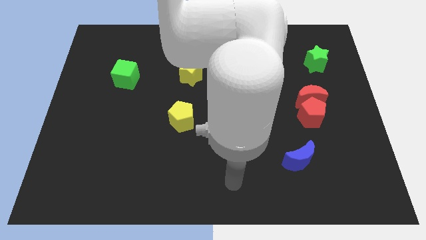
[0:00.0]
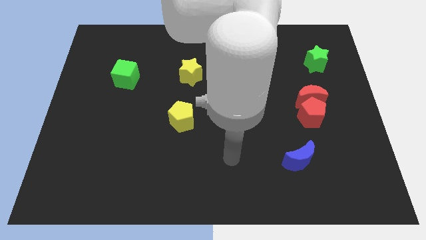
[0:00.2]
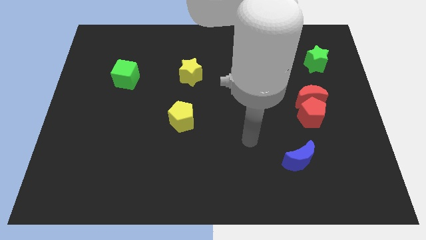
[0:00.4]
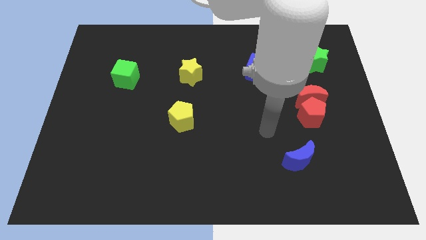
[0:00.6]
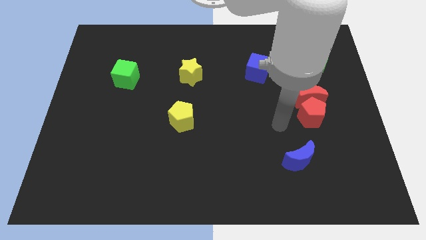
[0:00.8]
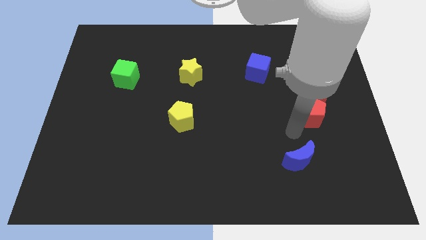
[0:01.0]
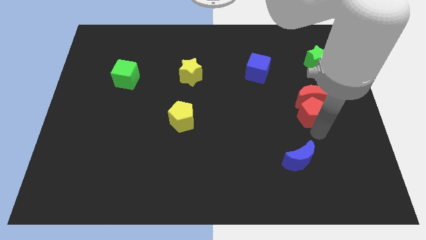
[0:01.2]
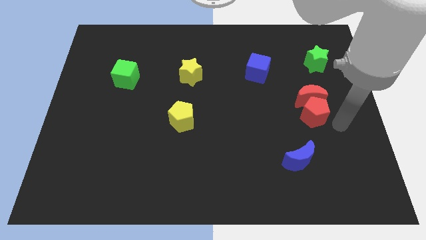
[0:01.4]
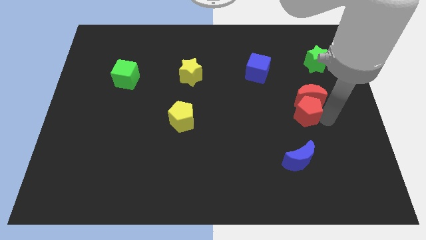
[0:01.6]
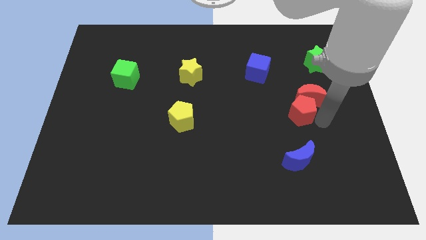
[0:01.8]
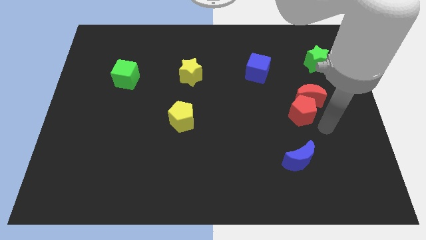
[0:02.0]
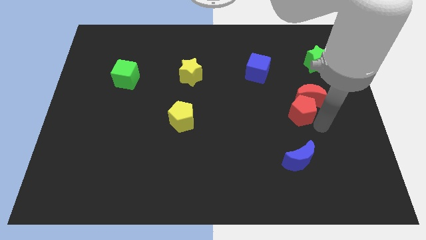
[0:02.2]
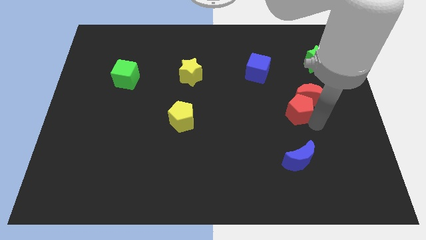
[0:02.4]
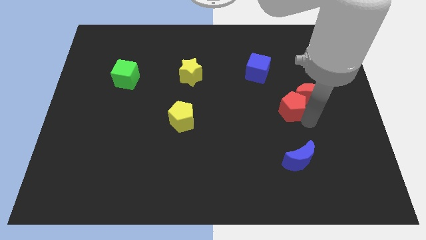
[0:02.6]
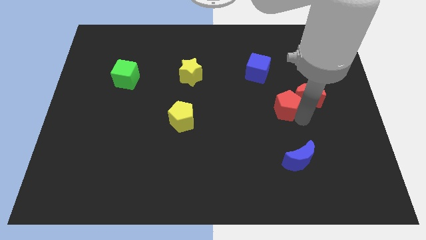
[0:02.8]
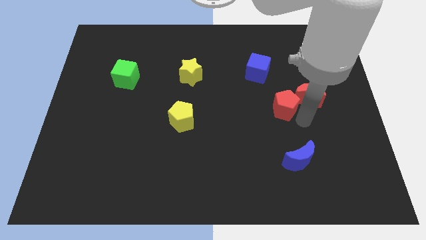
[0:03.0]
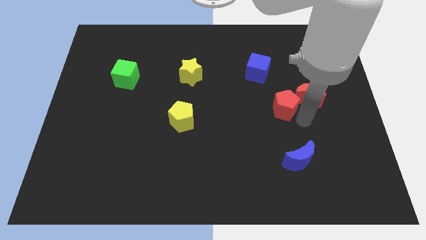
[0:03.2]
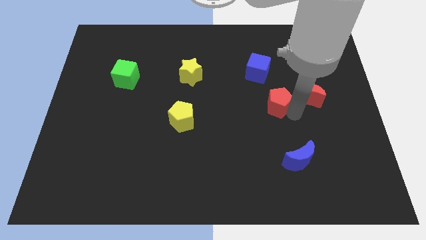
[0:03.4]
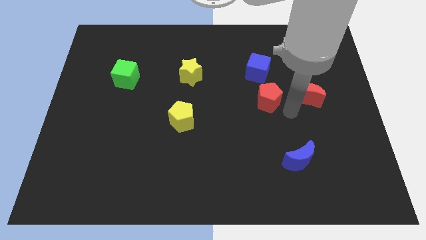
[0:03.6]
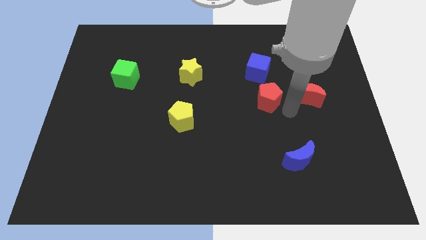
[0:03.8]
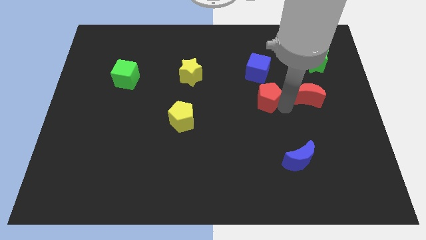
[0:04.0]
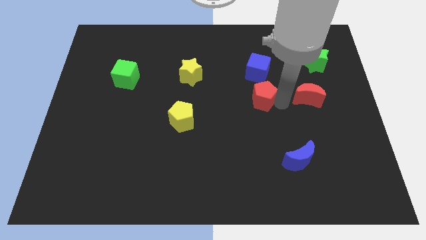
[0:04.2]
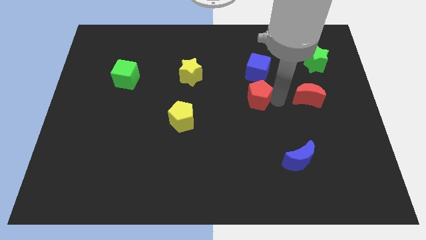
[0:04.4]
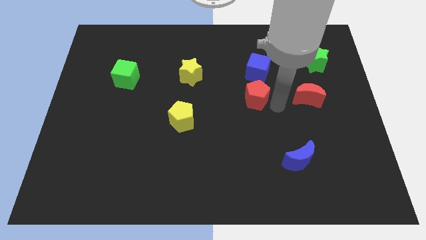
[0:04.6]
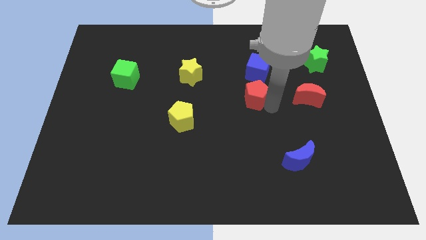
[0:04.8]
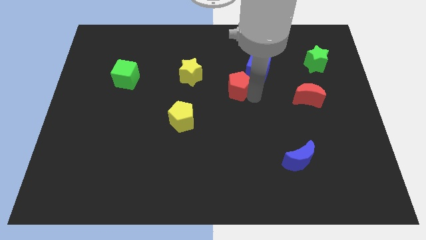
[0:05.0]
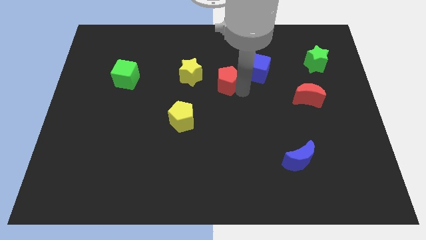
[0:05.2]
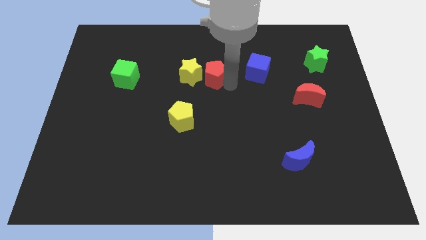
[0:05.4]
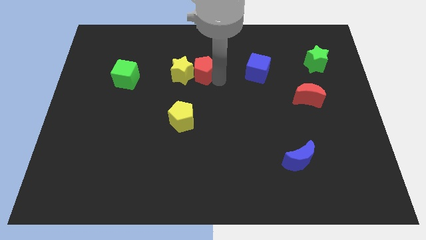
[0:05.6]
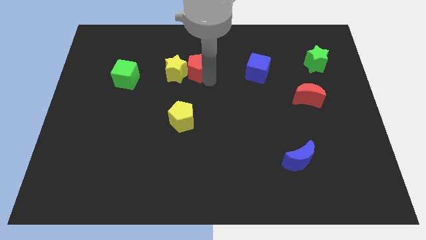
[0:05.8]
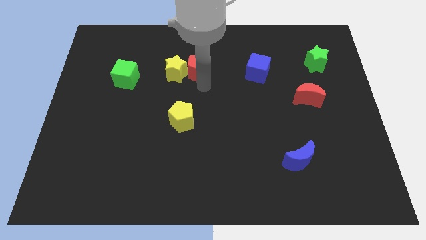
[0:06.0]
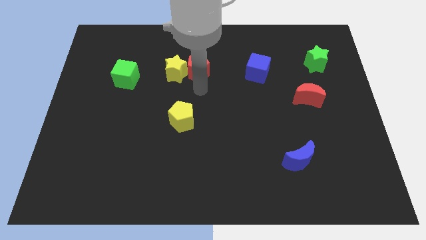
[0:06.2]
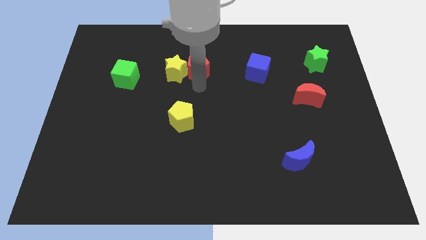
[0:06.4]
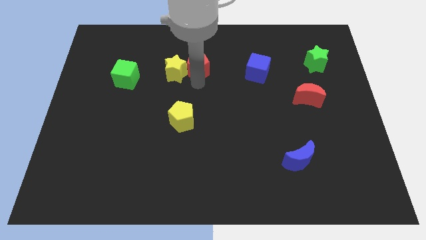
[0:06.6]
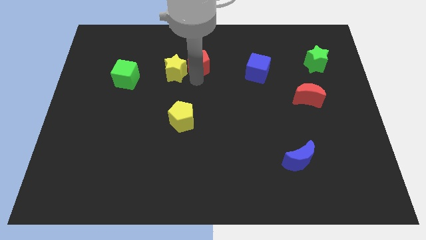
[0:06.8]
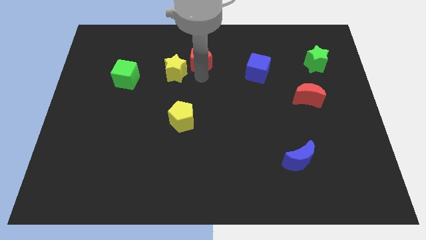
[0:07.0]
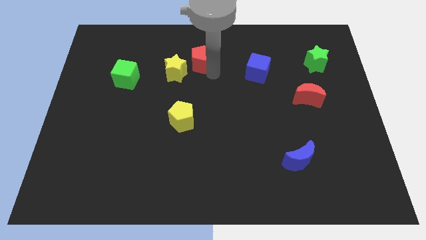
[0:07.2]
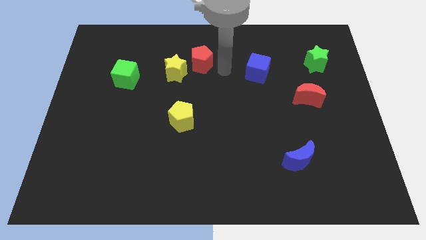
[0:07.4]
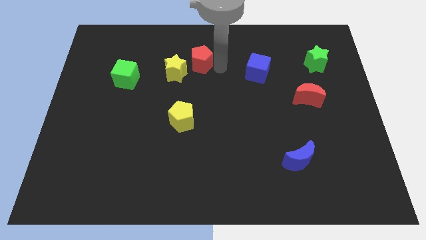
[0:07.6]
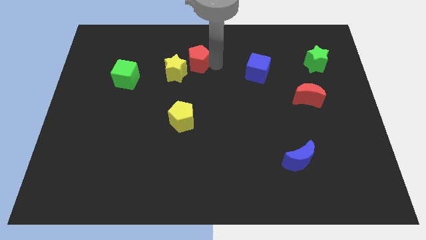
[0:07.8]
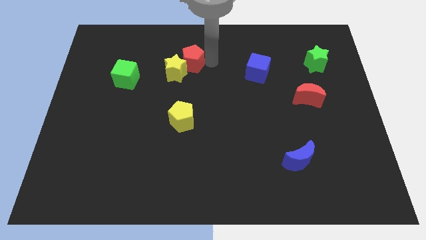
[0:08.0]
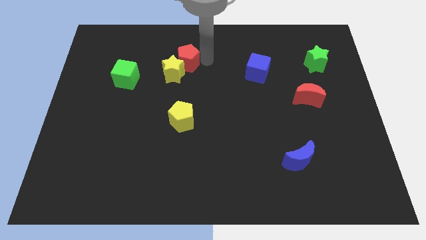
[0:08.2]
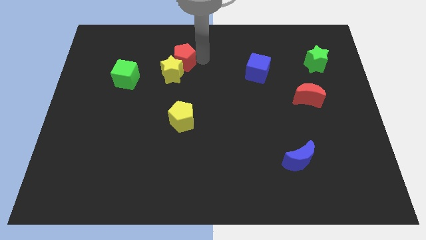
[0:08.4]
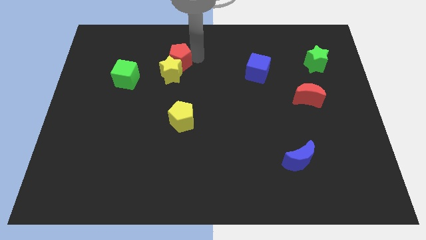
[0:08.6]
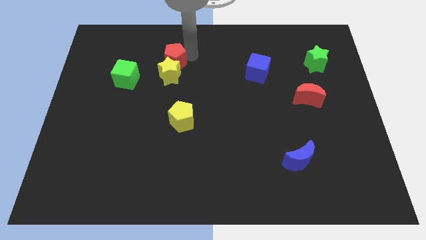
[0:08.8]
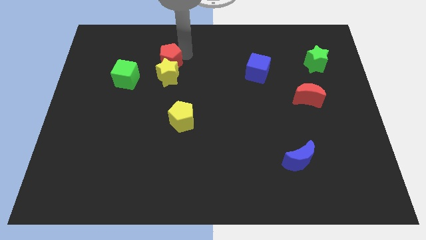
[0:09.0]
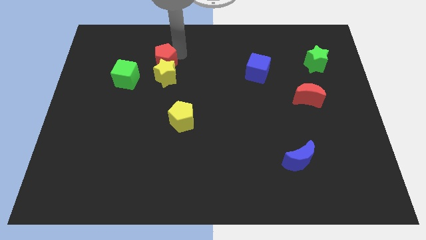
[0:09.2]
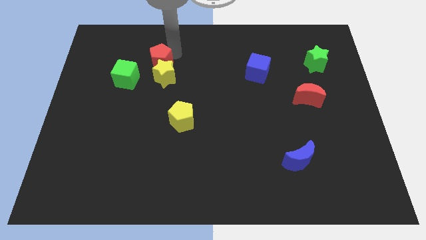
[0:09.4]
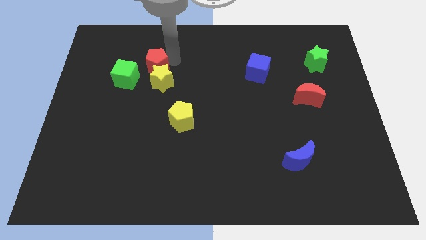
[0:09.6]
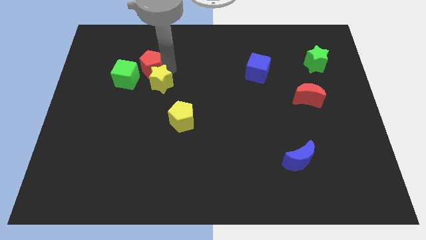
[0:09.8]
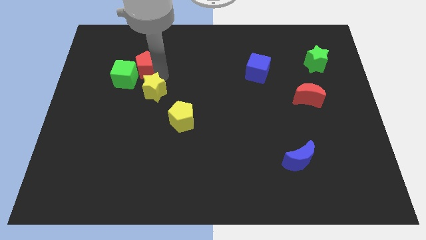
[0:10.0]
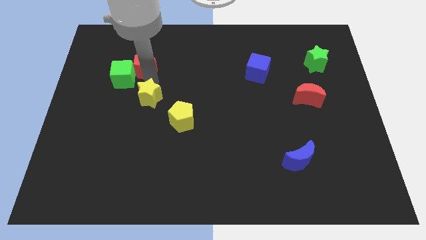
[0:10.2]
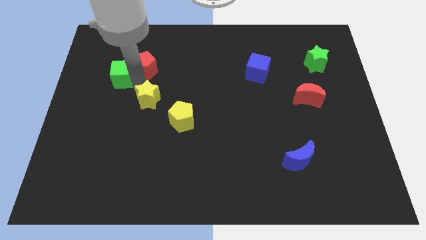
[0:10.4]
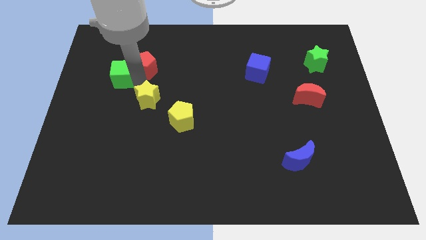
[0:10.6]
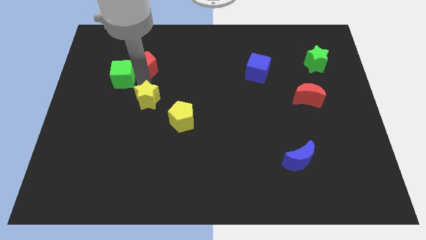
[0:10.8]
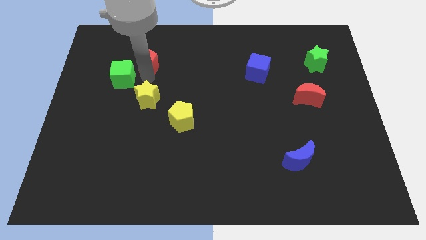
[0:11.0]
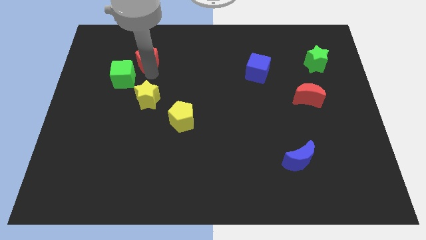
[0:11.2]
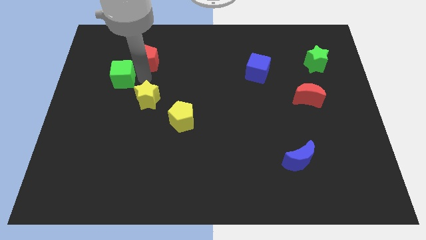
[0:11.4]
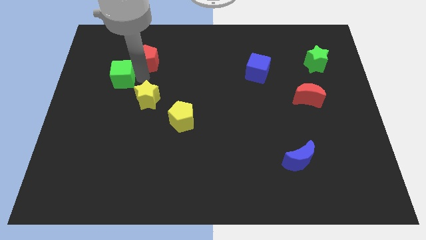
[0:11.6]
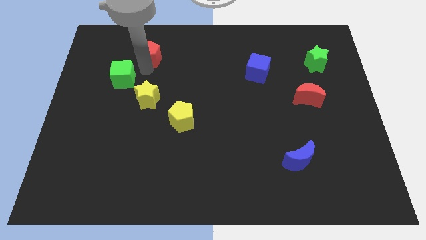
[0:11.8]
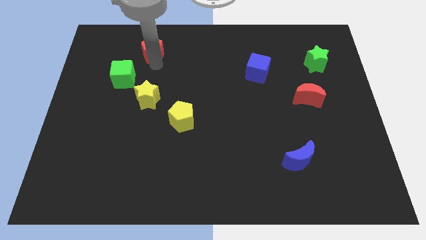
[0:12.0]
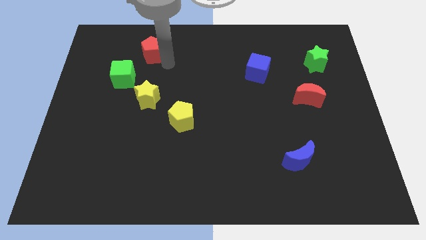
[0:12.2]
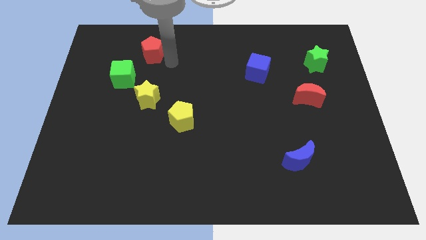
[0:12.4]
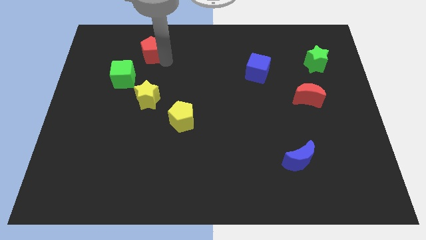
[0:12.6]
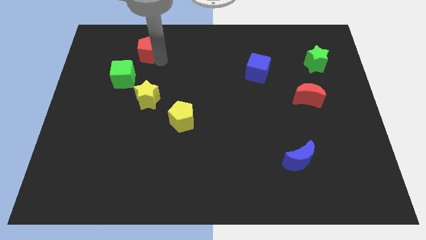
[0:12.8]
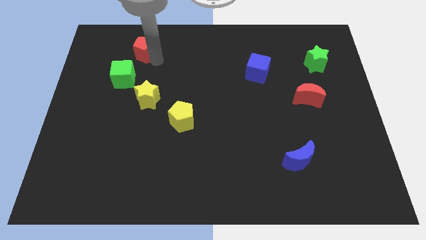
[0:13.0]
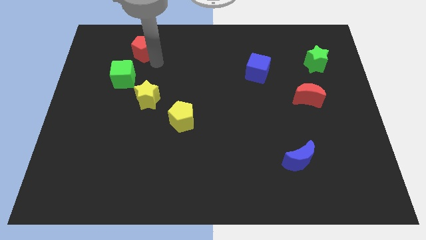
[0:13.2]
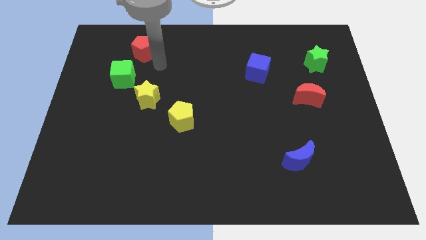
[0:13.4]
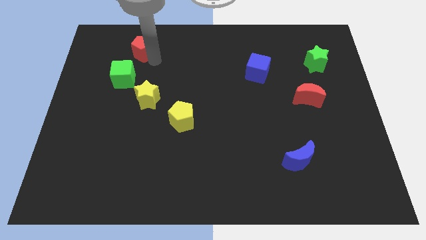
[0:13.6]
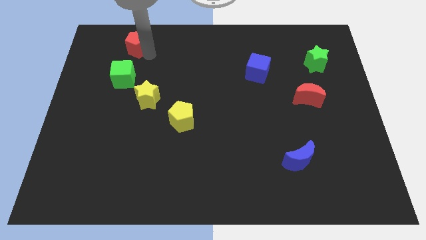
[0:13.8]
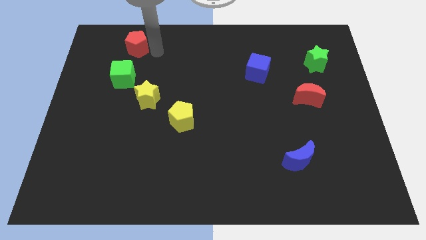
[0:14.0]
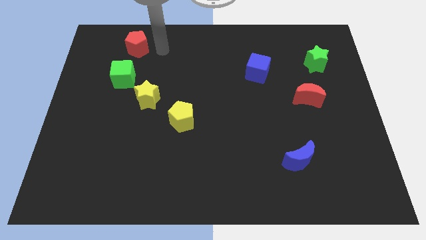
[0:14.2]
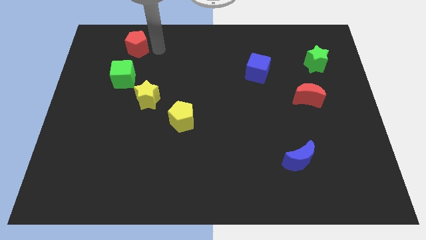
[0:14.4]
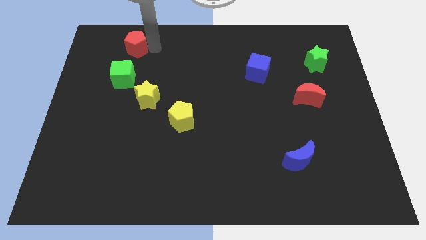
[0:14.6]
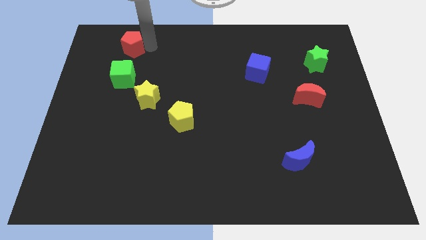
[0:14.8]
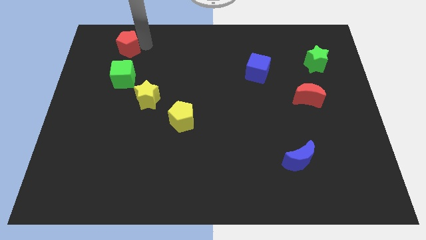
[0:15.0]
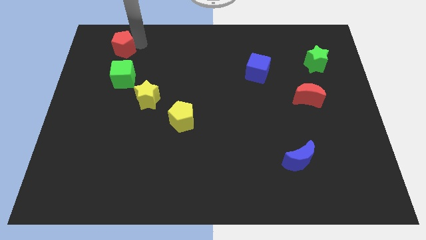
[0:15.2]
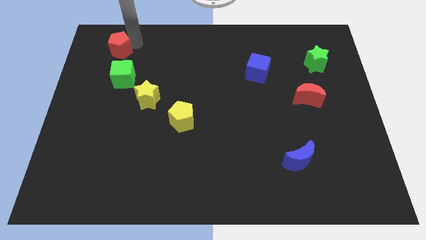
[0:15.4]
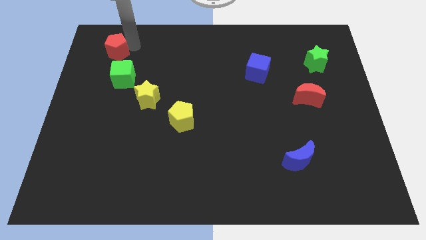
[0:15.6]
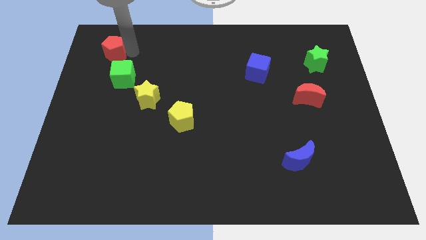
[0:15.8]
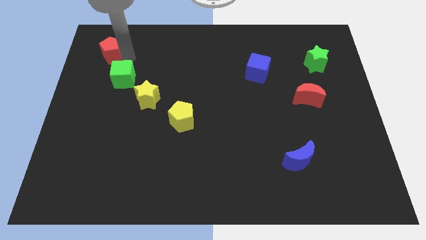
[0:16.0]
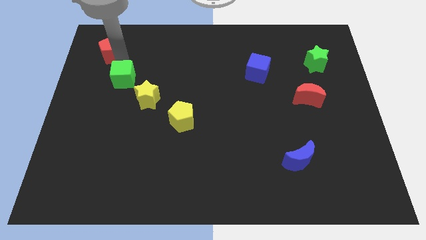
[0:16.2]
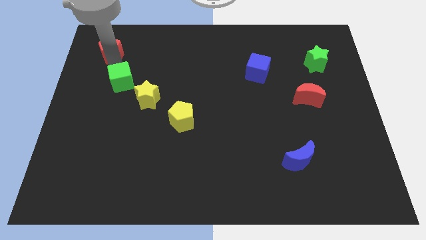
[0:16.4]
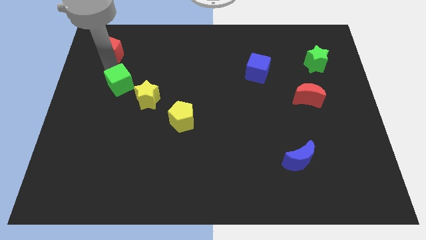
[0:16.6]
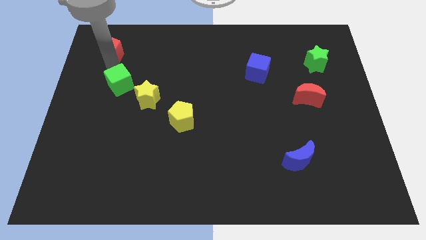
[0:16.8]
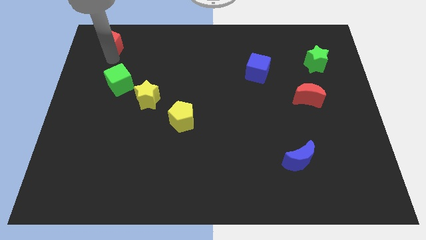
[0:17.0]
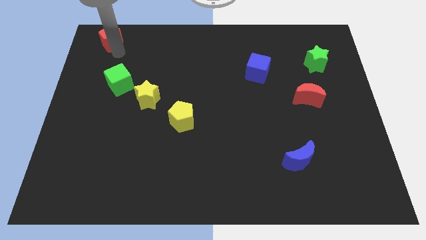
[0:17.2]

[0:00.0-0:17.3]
slide the red pentagon to the top left corner
